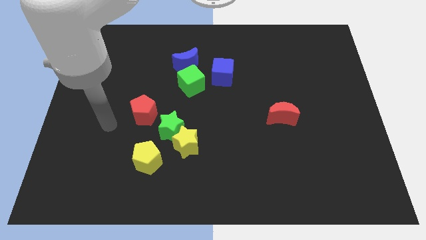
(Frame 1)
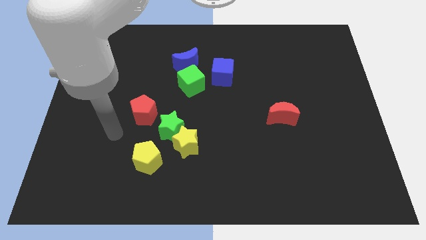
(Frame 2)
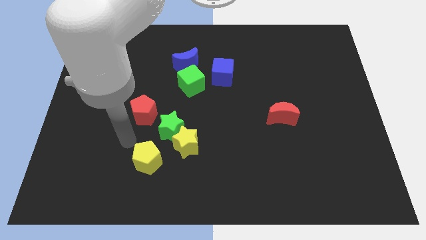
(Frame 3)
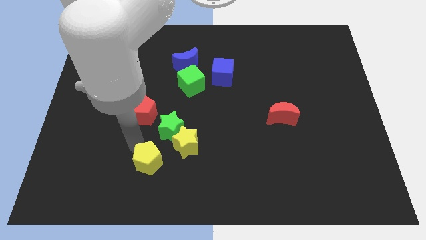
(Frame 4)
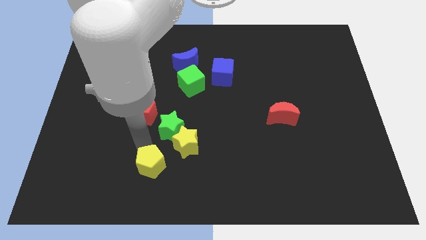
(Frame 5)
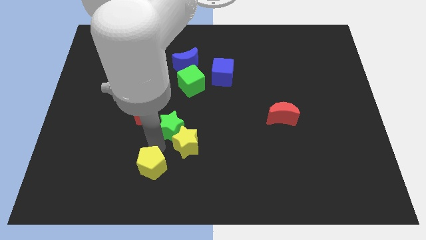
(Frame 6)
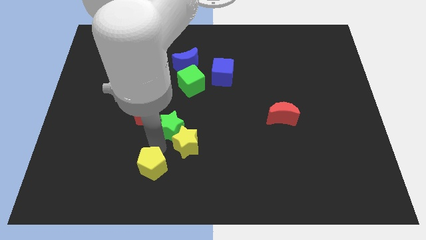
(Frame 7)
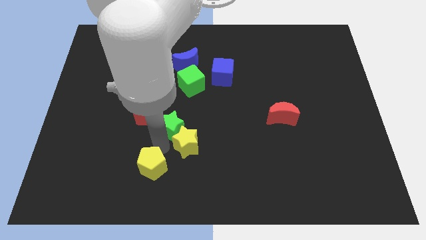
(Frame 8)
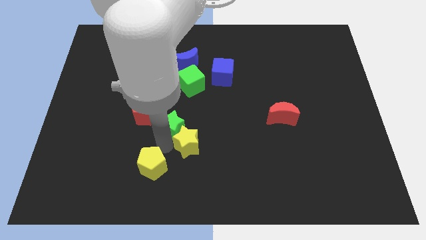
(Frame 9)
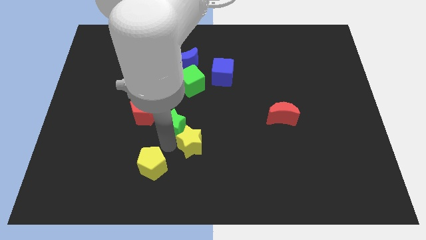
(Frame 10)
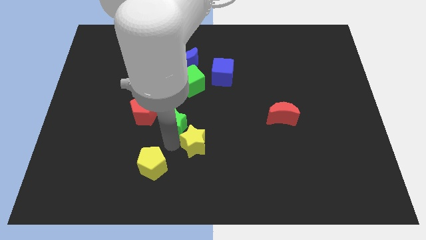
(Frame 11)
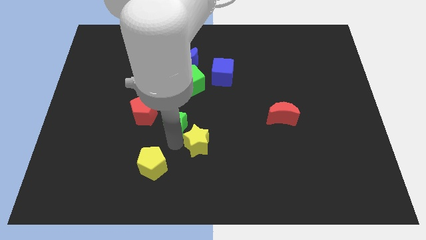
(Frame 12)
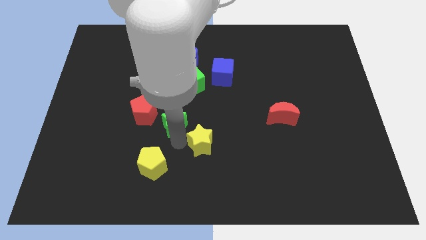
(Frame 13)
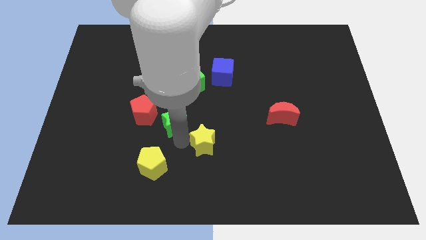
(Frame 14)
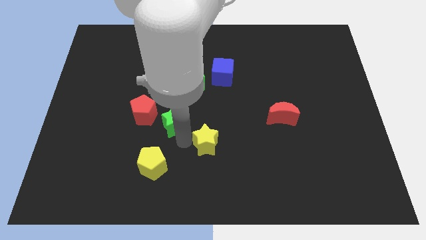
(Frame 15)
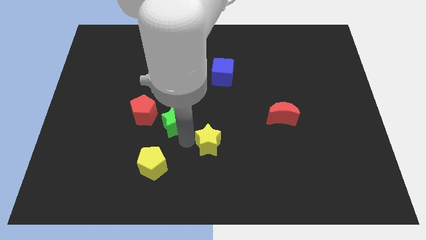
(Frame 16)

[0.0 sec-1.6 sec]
move the yellow star away from the green star and yellow pentagon

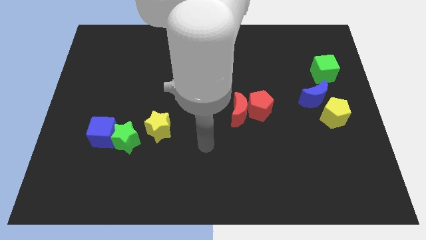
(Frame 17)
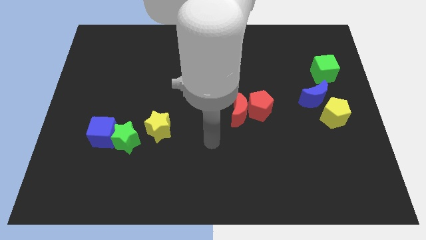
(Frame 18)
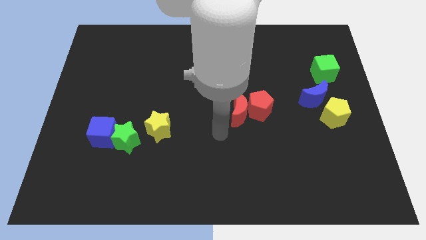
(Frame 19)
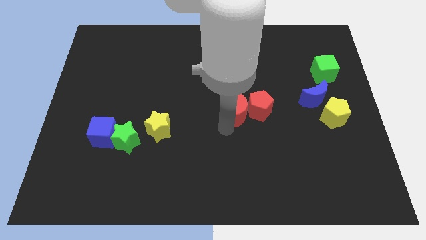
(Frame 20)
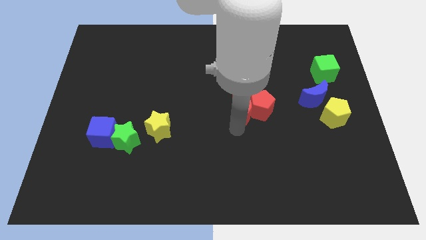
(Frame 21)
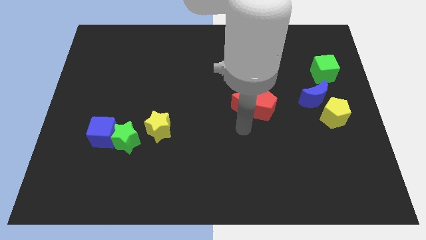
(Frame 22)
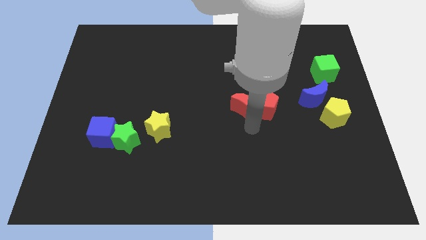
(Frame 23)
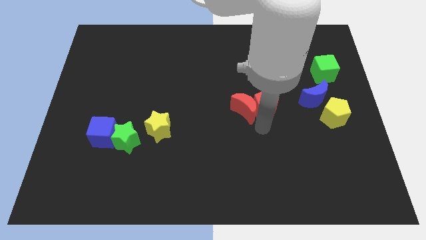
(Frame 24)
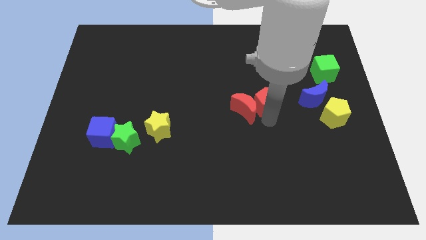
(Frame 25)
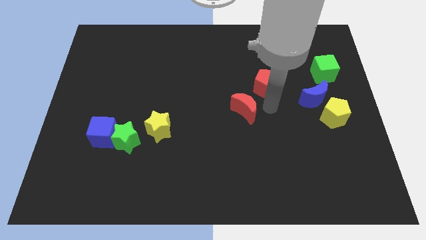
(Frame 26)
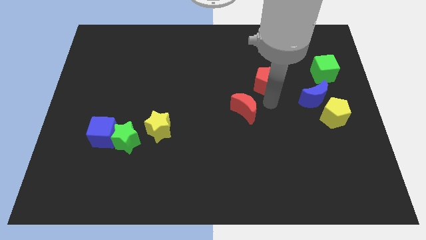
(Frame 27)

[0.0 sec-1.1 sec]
separate the red moon from the red pentagon

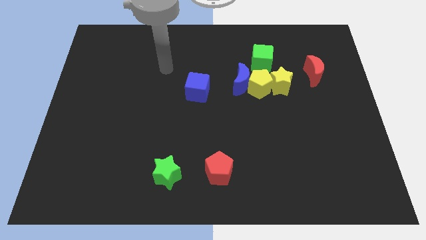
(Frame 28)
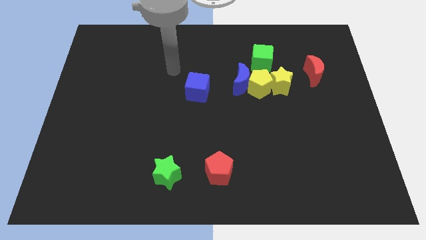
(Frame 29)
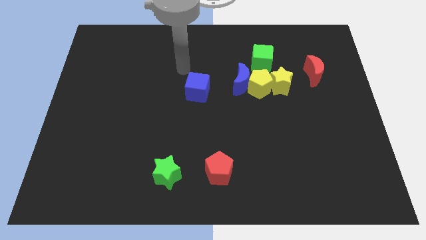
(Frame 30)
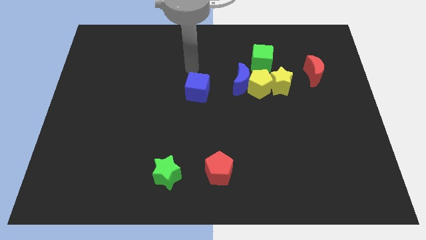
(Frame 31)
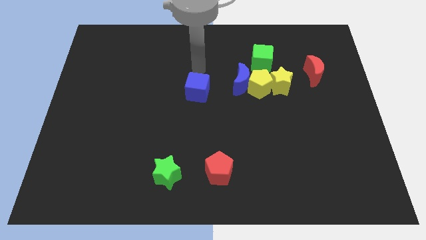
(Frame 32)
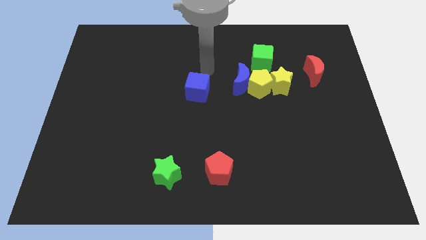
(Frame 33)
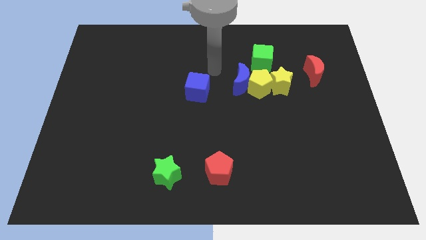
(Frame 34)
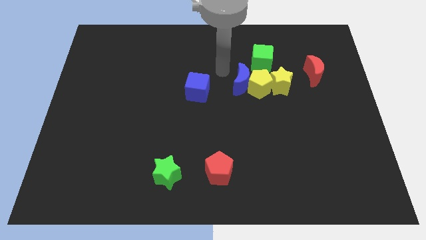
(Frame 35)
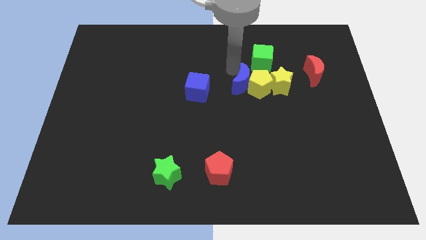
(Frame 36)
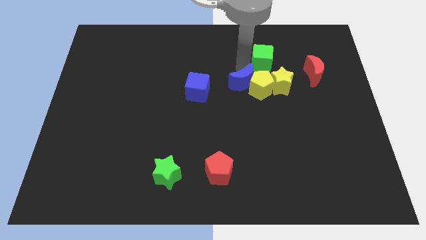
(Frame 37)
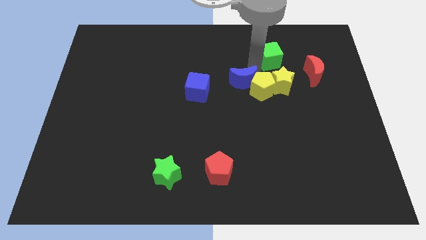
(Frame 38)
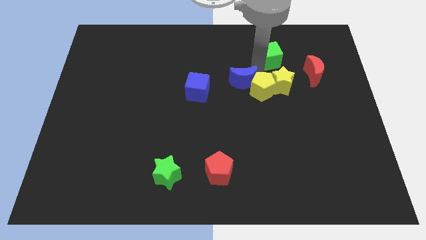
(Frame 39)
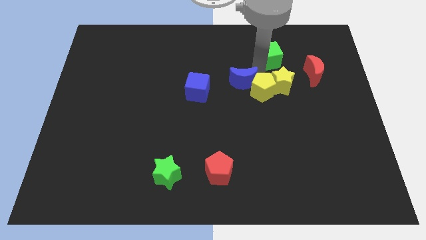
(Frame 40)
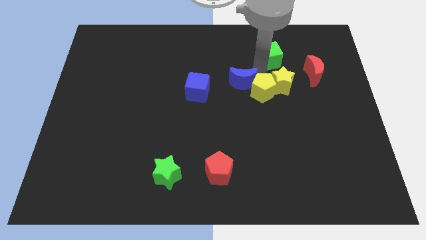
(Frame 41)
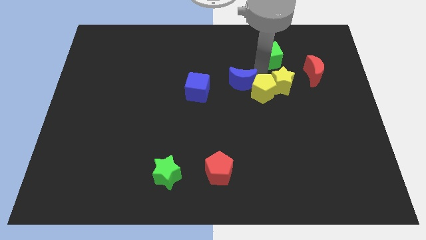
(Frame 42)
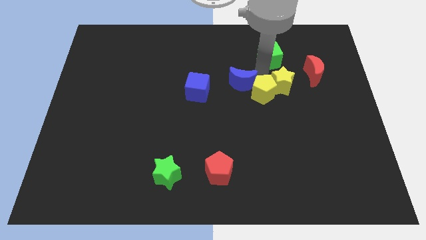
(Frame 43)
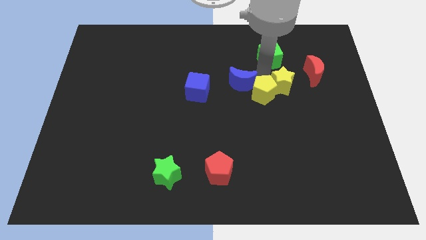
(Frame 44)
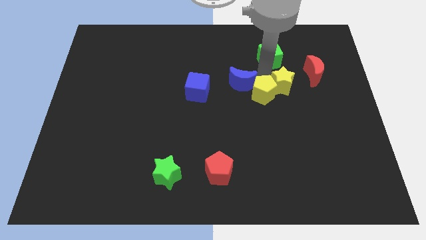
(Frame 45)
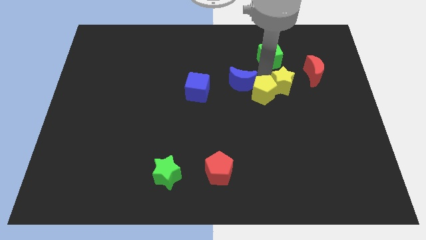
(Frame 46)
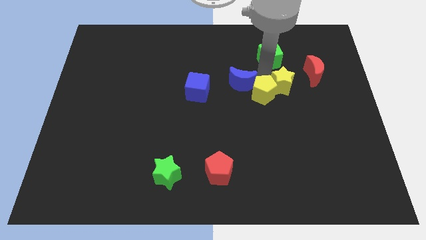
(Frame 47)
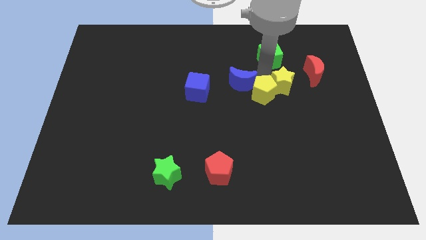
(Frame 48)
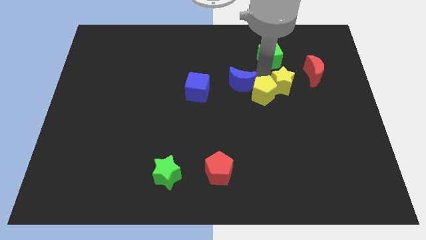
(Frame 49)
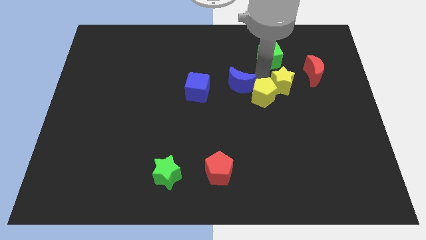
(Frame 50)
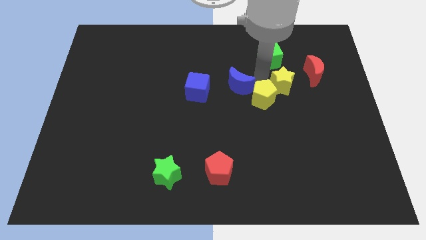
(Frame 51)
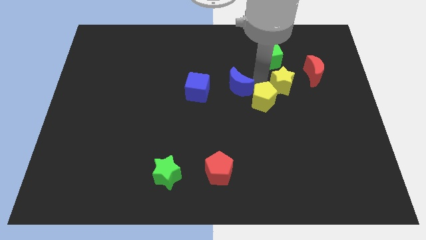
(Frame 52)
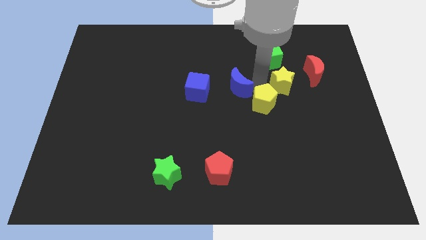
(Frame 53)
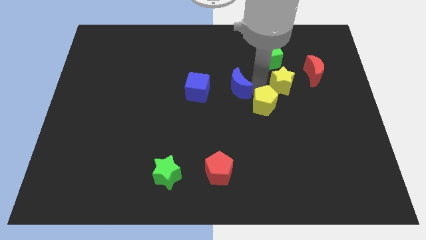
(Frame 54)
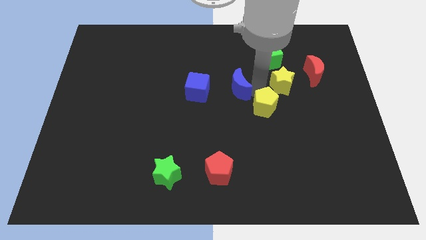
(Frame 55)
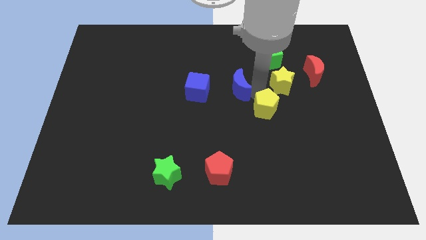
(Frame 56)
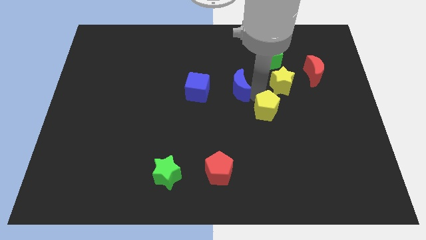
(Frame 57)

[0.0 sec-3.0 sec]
pull the yellow pentagon apart from the group

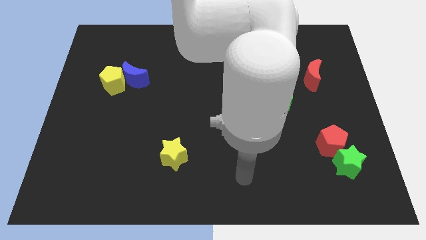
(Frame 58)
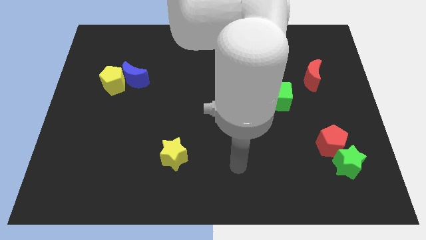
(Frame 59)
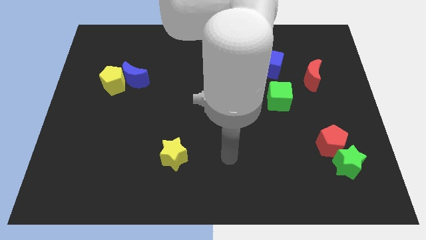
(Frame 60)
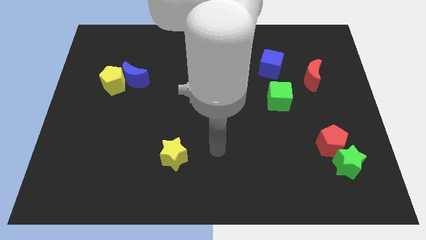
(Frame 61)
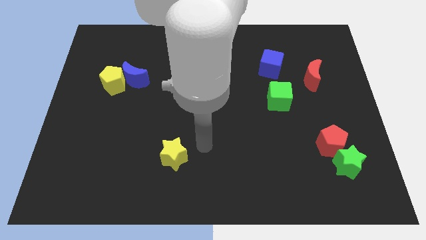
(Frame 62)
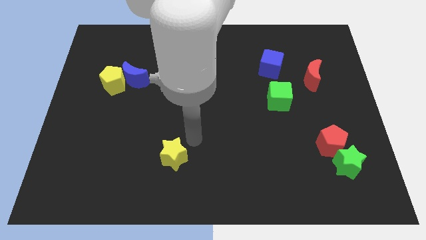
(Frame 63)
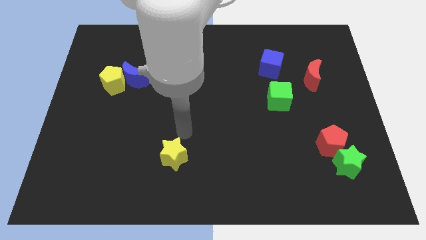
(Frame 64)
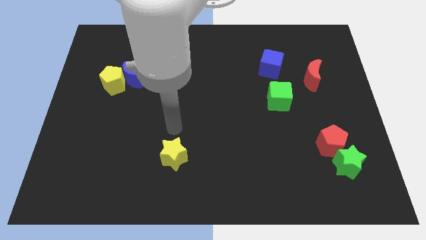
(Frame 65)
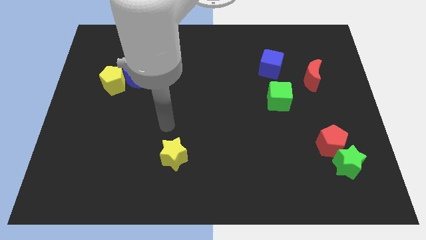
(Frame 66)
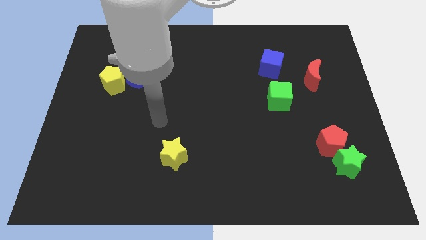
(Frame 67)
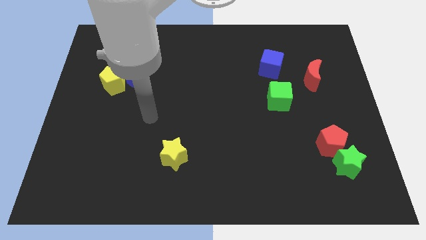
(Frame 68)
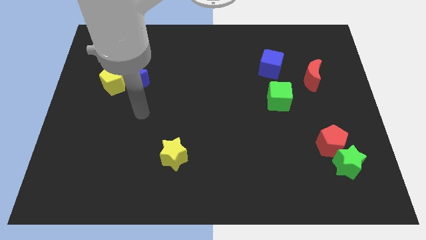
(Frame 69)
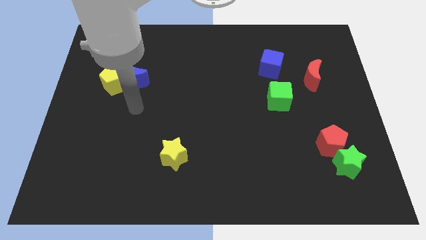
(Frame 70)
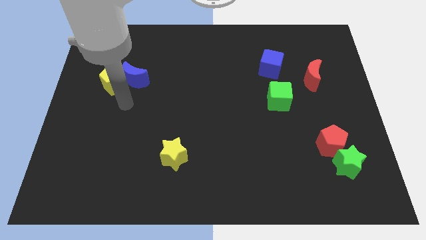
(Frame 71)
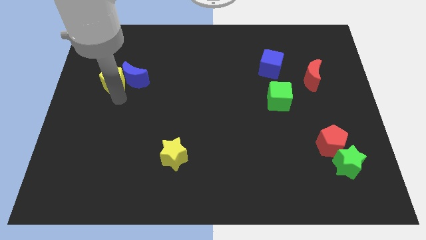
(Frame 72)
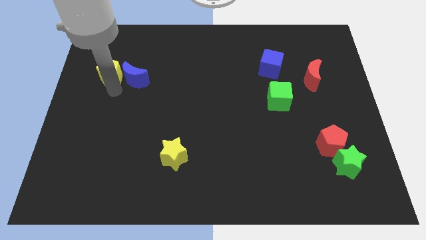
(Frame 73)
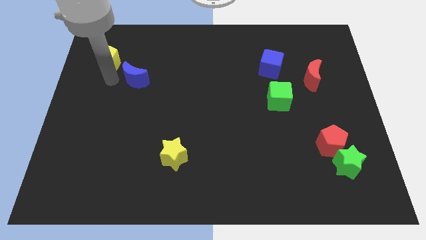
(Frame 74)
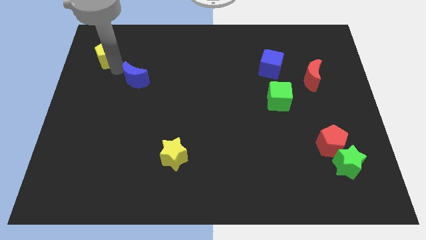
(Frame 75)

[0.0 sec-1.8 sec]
pull the blue moon apart from the yellow pentagon

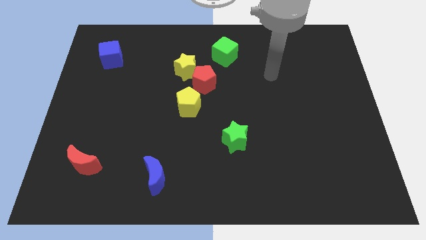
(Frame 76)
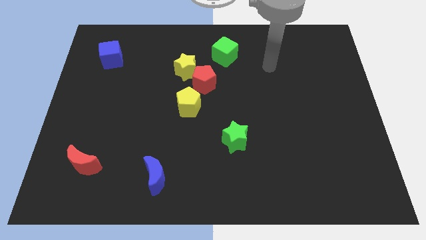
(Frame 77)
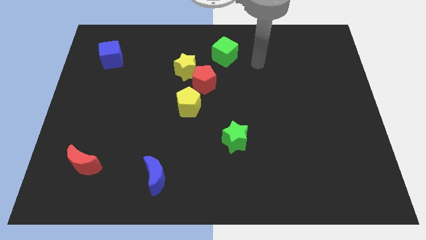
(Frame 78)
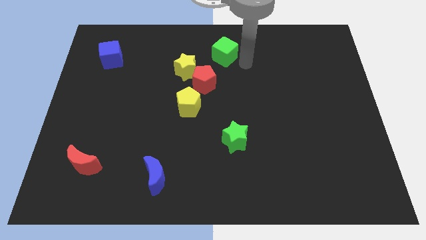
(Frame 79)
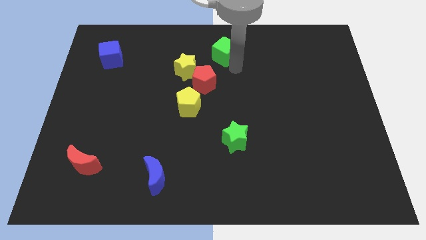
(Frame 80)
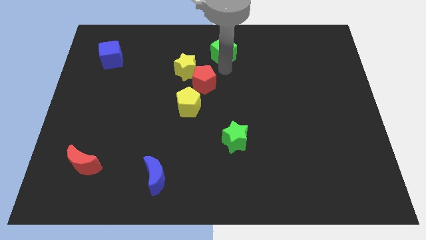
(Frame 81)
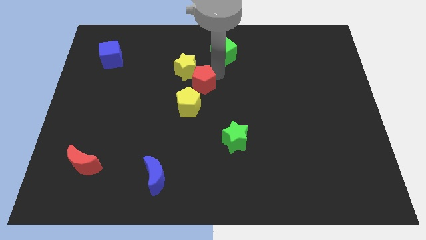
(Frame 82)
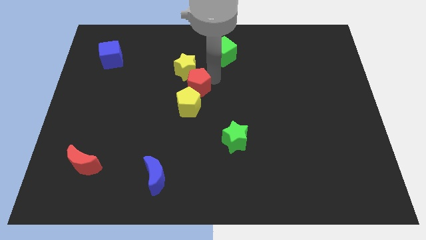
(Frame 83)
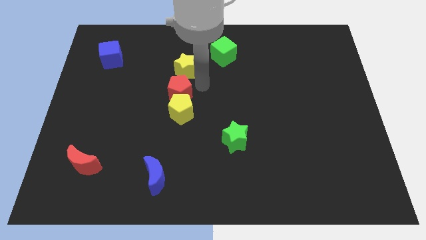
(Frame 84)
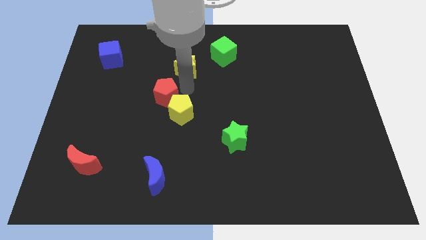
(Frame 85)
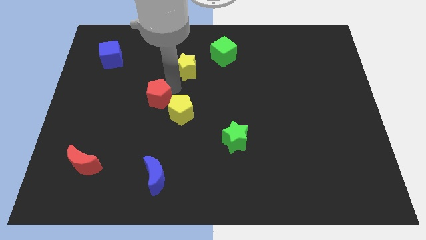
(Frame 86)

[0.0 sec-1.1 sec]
pull the yellow star apart from the red pentagon

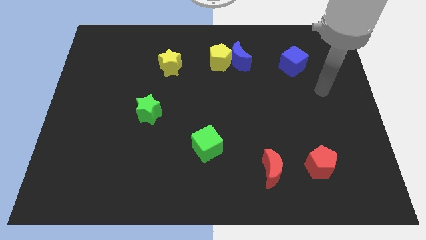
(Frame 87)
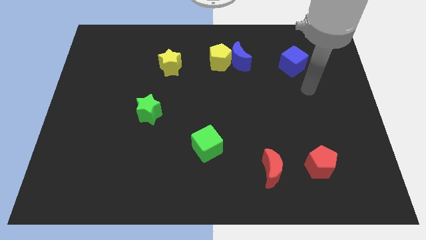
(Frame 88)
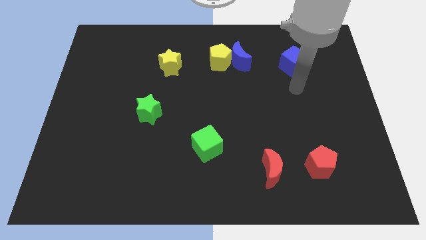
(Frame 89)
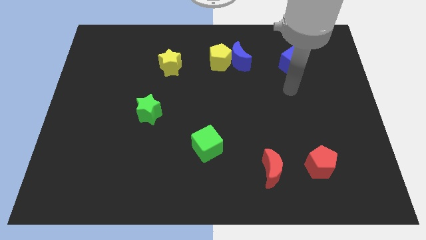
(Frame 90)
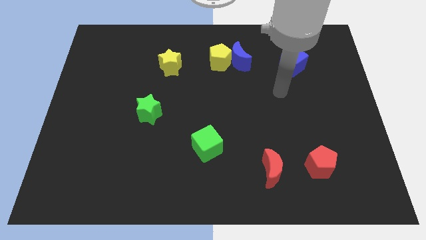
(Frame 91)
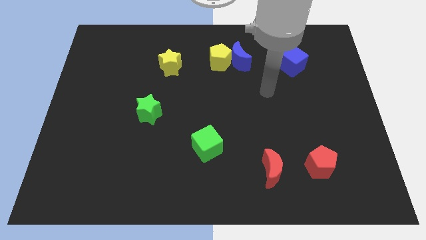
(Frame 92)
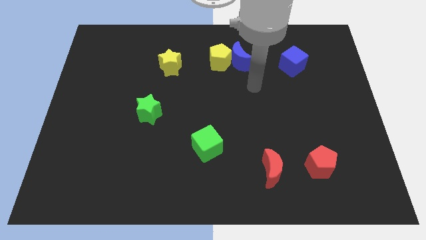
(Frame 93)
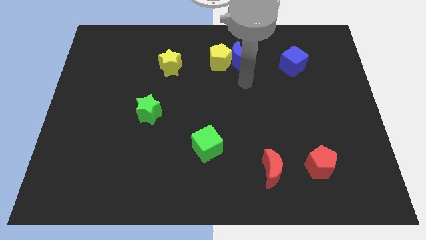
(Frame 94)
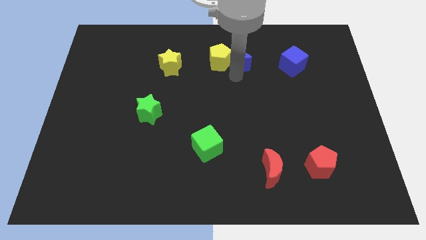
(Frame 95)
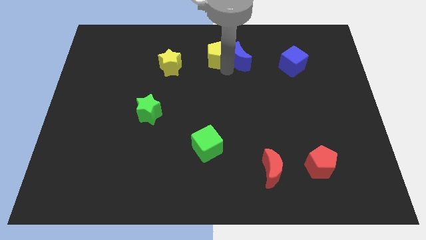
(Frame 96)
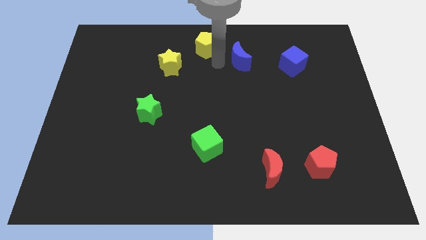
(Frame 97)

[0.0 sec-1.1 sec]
move the blue moon away from the yellow pentagon
